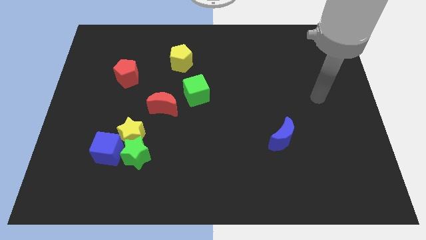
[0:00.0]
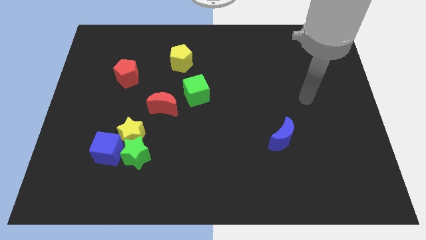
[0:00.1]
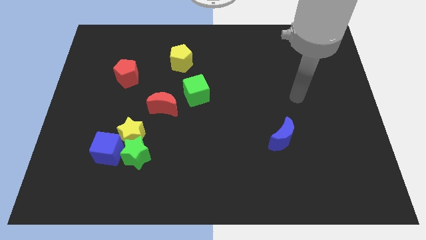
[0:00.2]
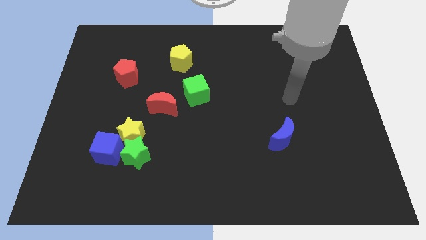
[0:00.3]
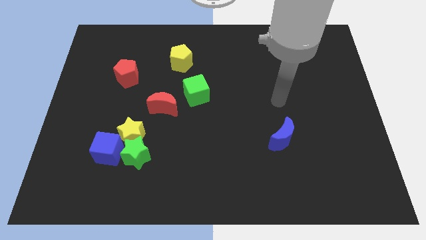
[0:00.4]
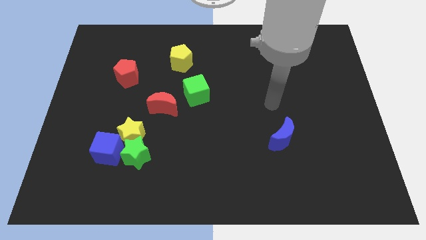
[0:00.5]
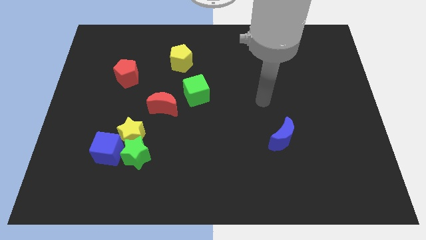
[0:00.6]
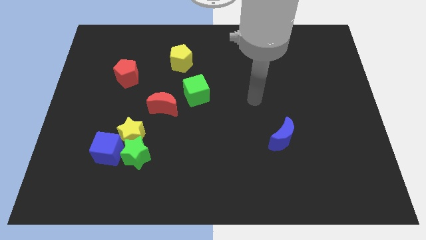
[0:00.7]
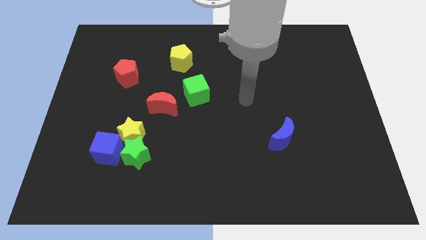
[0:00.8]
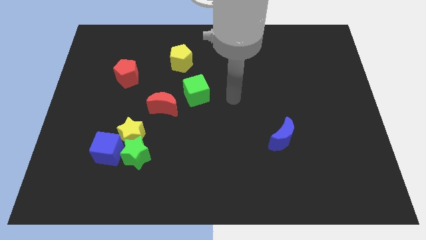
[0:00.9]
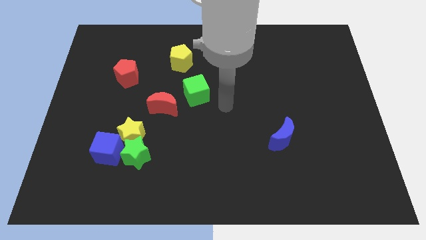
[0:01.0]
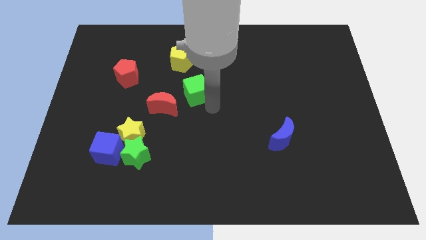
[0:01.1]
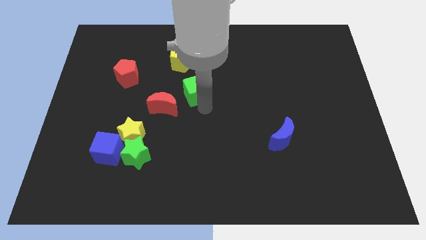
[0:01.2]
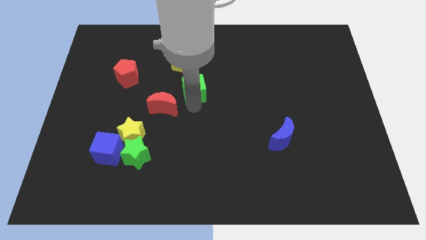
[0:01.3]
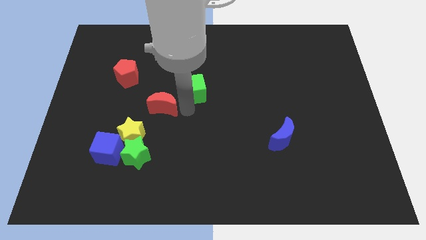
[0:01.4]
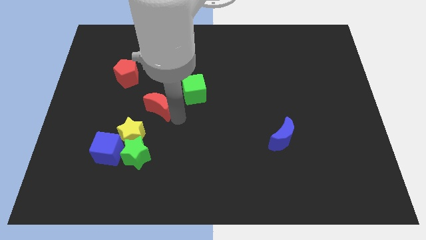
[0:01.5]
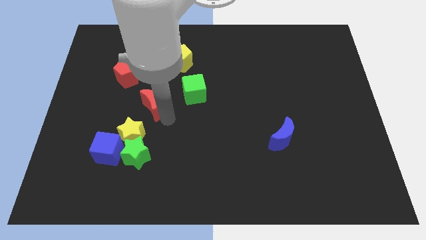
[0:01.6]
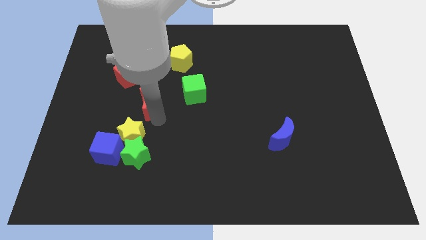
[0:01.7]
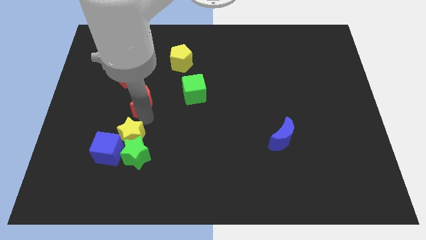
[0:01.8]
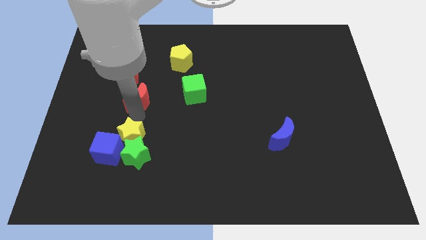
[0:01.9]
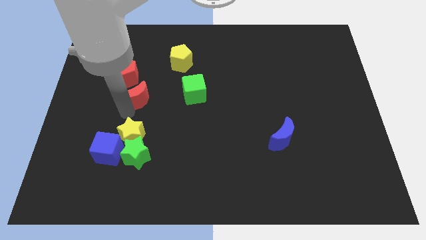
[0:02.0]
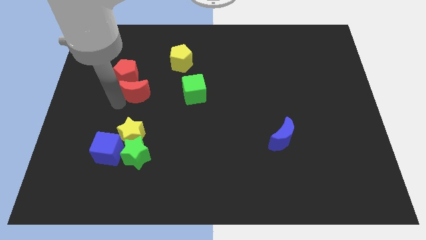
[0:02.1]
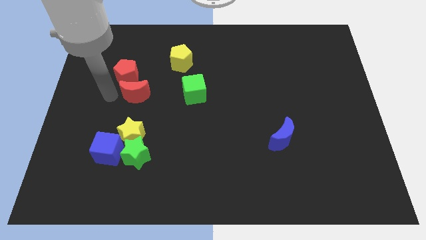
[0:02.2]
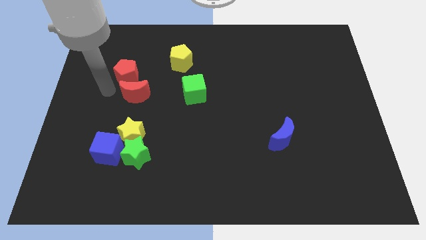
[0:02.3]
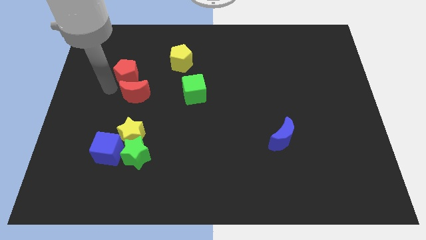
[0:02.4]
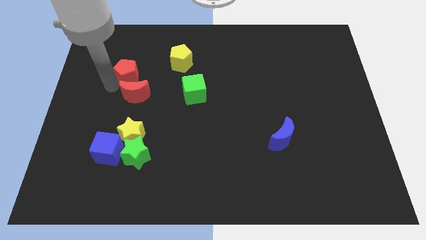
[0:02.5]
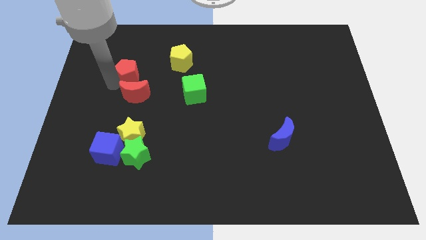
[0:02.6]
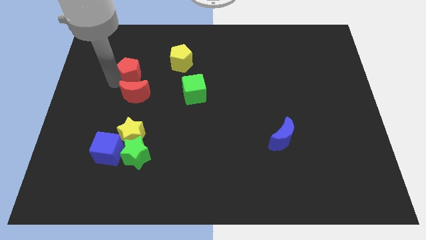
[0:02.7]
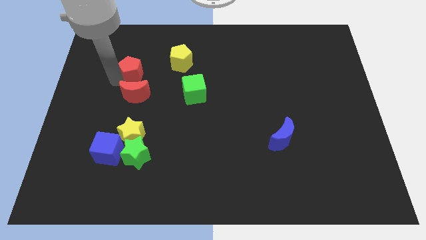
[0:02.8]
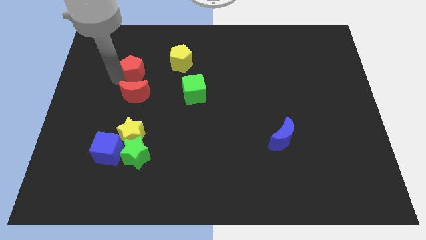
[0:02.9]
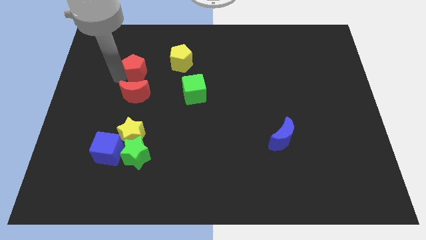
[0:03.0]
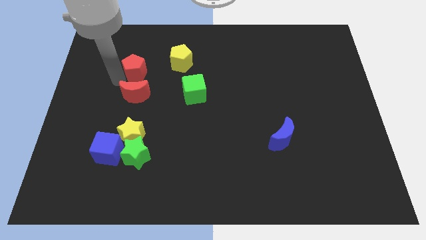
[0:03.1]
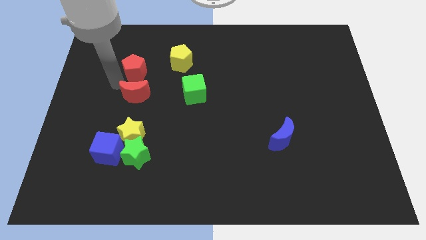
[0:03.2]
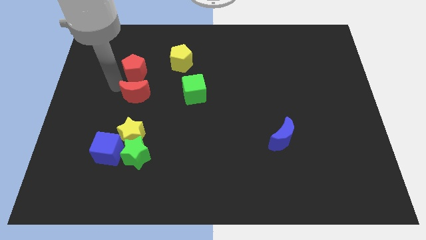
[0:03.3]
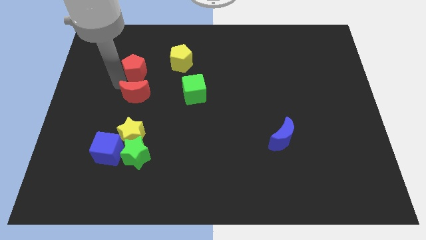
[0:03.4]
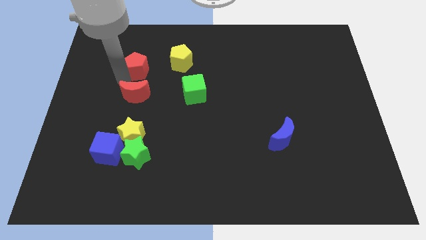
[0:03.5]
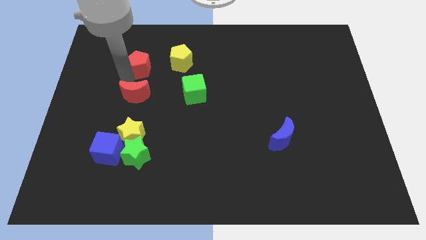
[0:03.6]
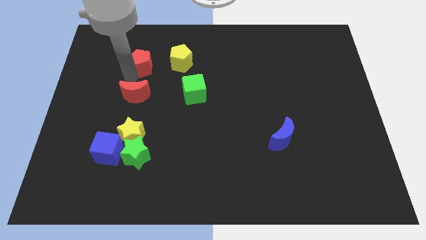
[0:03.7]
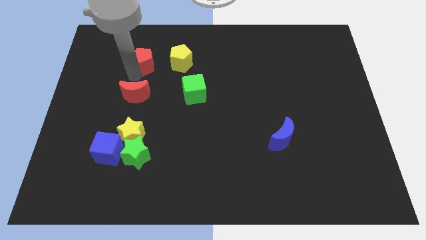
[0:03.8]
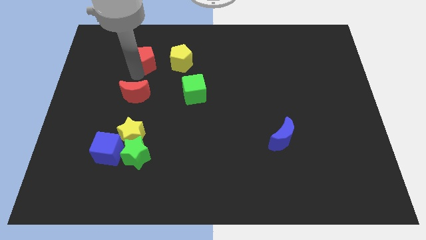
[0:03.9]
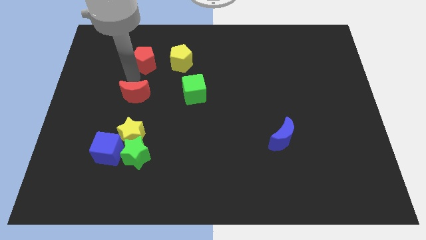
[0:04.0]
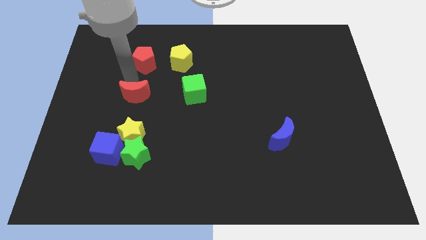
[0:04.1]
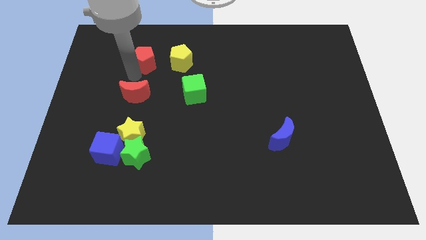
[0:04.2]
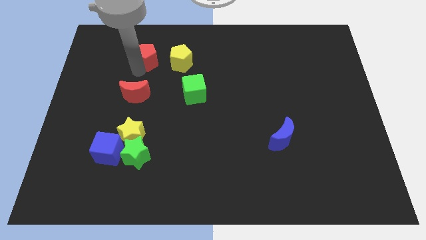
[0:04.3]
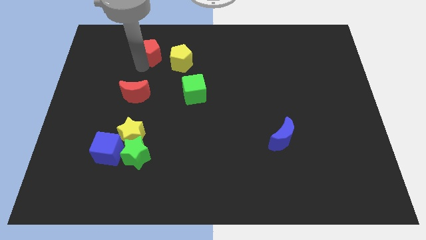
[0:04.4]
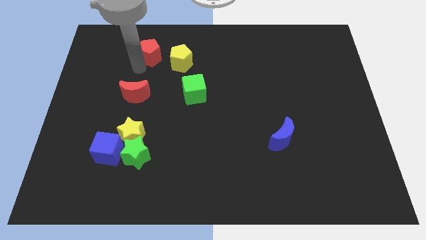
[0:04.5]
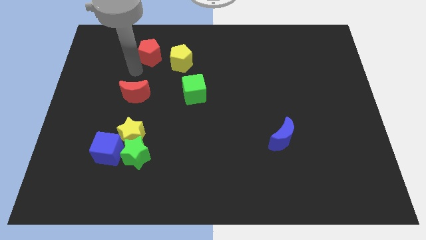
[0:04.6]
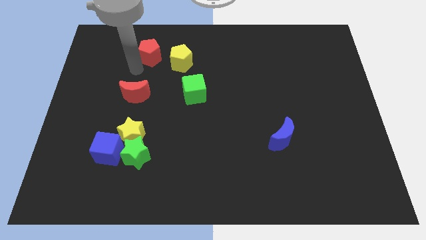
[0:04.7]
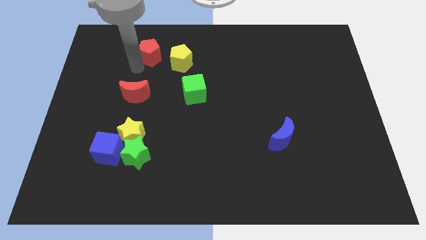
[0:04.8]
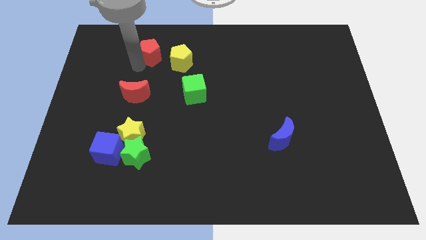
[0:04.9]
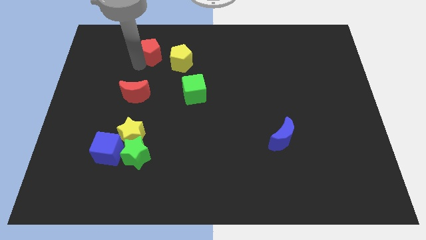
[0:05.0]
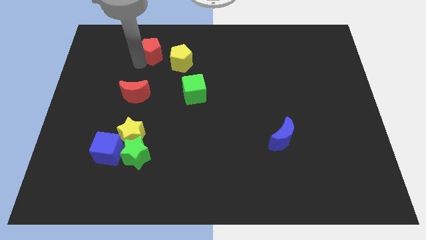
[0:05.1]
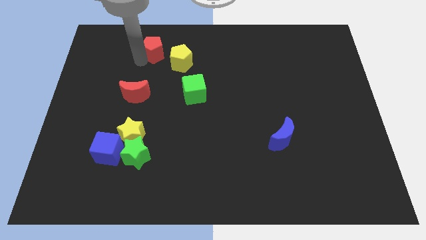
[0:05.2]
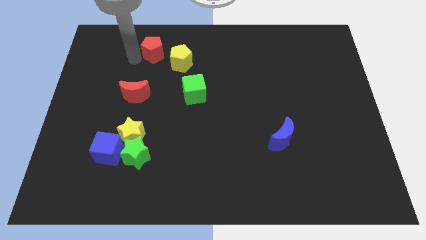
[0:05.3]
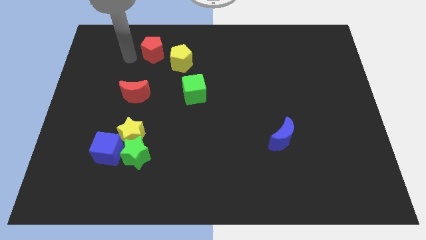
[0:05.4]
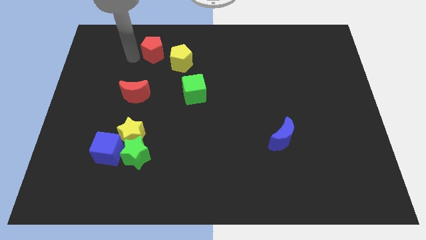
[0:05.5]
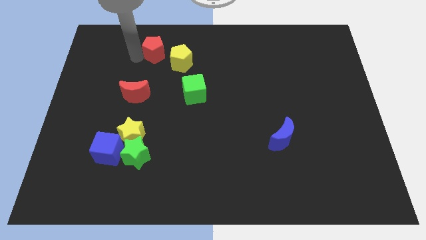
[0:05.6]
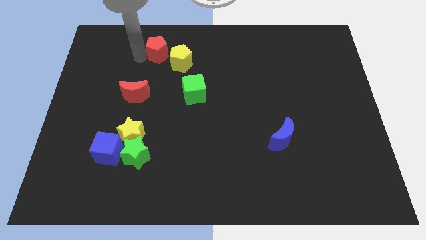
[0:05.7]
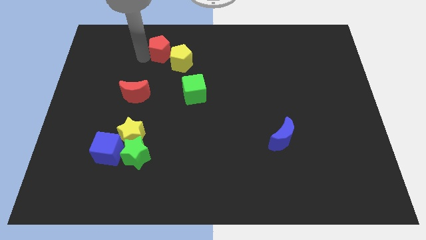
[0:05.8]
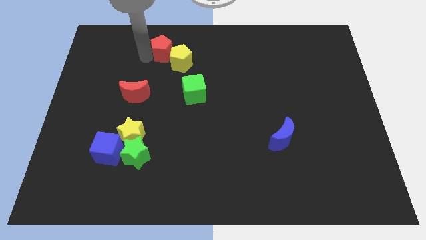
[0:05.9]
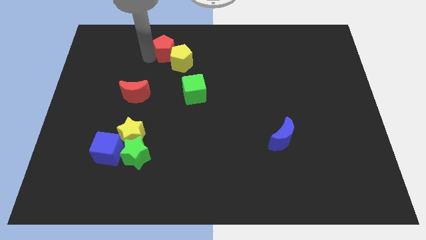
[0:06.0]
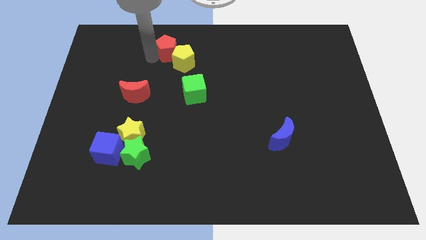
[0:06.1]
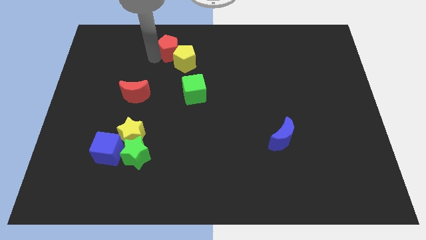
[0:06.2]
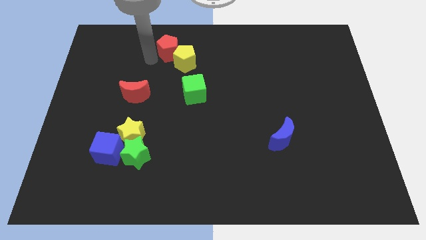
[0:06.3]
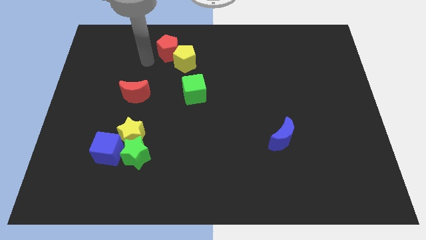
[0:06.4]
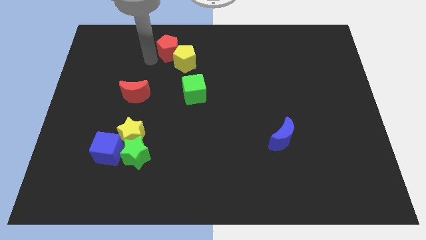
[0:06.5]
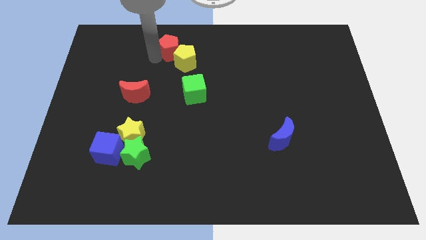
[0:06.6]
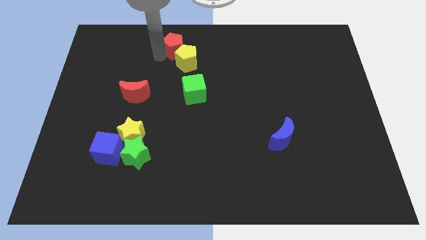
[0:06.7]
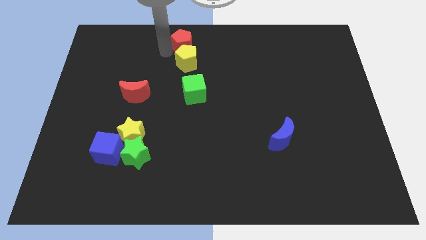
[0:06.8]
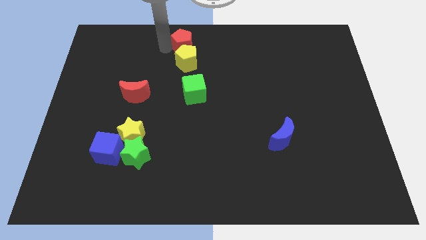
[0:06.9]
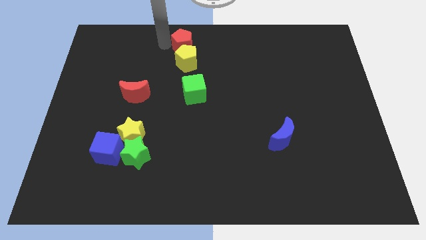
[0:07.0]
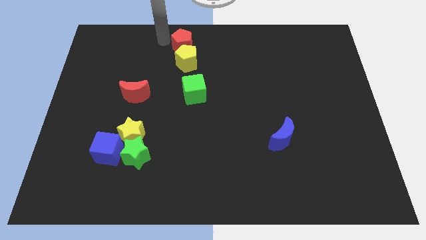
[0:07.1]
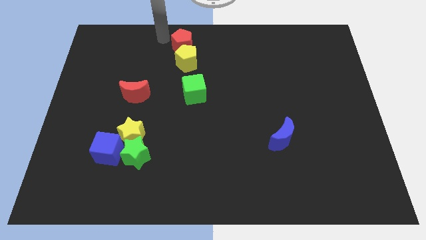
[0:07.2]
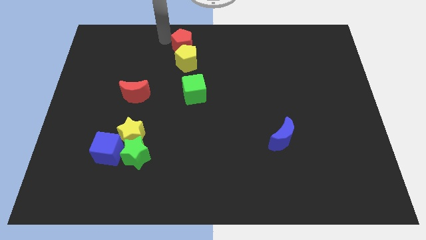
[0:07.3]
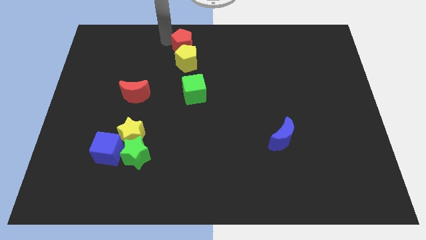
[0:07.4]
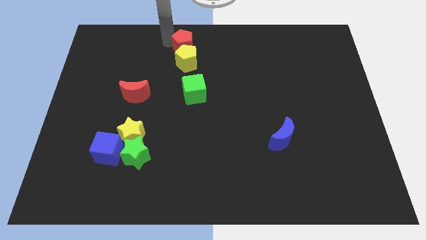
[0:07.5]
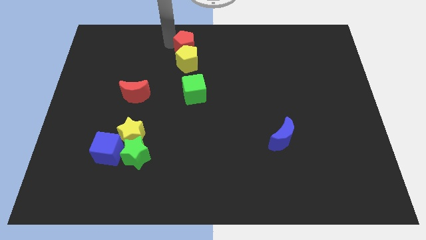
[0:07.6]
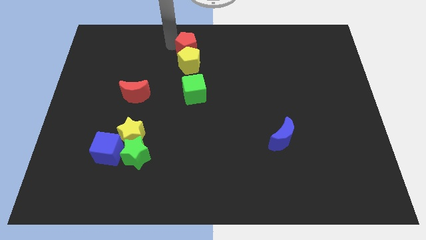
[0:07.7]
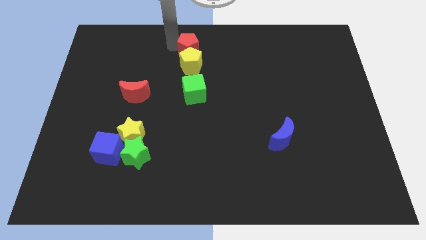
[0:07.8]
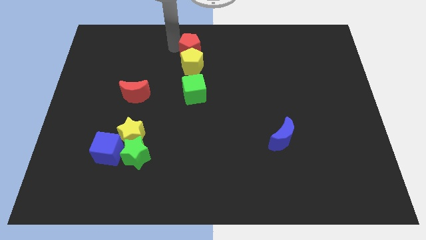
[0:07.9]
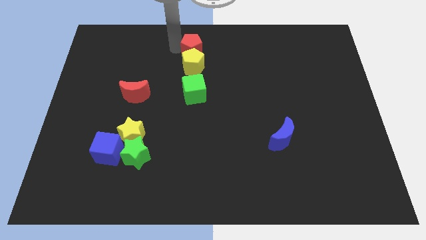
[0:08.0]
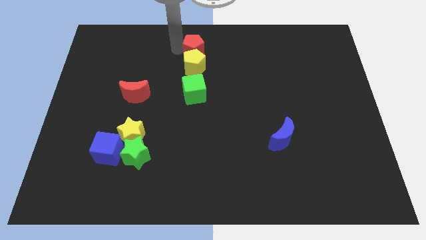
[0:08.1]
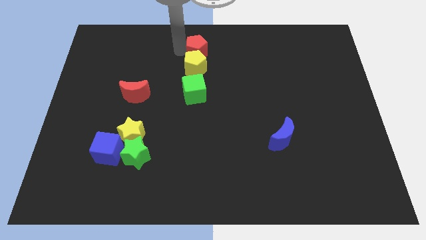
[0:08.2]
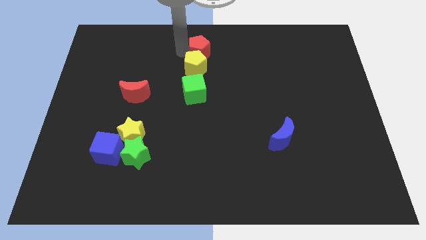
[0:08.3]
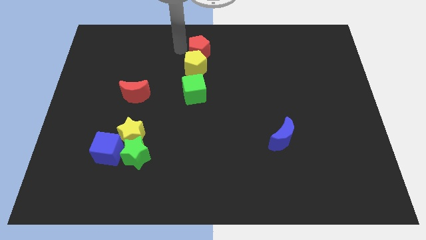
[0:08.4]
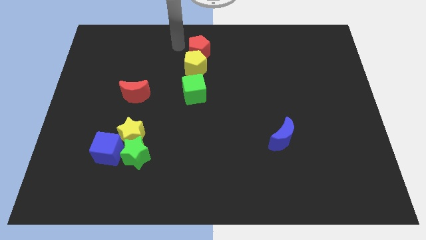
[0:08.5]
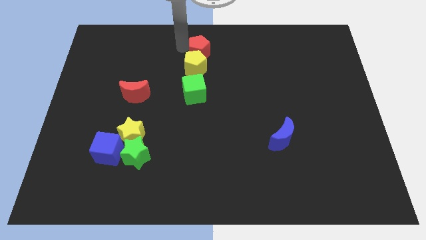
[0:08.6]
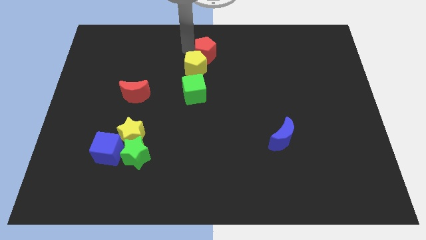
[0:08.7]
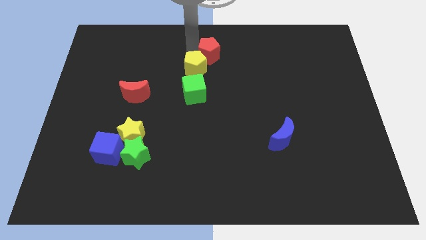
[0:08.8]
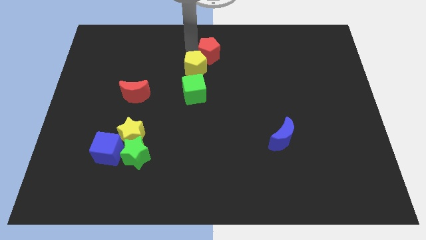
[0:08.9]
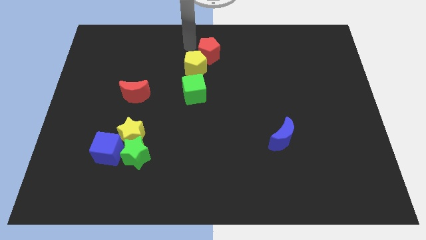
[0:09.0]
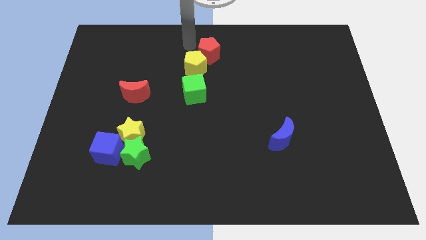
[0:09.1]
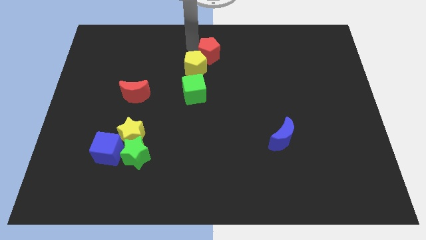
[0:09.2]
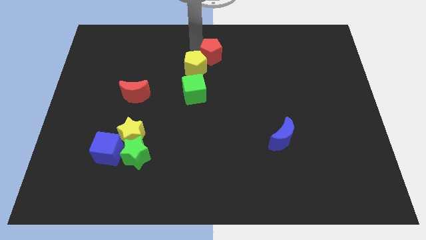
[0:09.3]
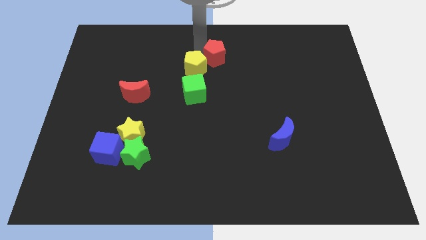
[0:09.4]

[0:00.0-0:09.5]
push the red pentagon to the right
